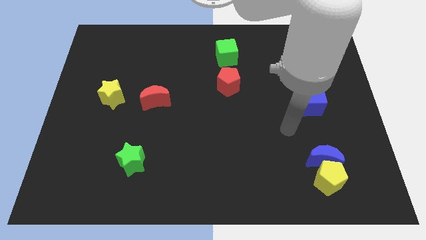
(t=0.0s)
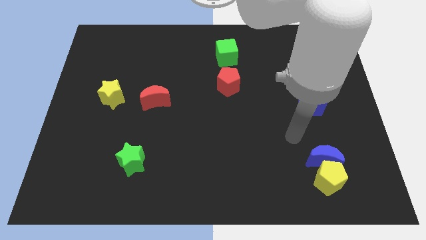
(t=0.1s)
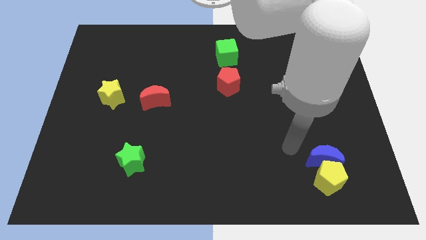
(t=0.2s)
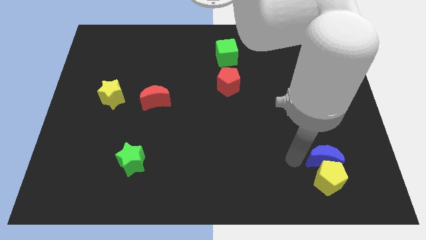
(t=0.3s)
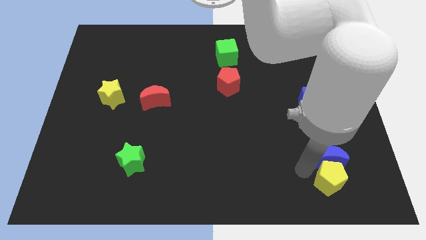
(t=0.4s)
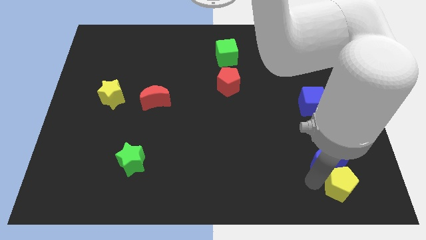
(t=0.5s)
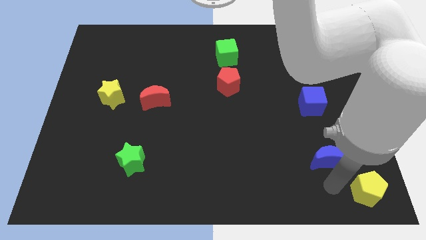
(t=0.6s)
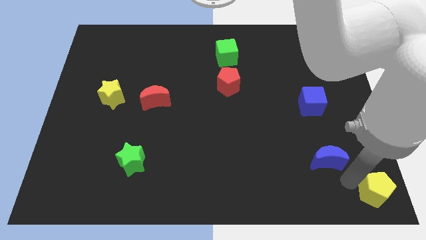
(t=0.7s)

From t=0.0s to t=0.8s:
move the blue moon away from the yellow pentagon

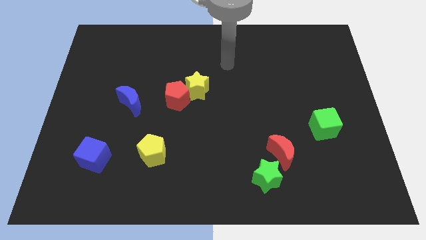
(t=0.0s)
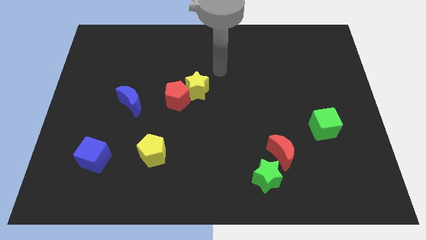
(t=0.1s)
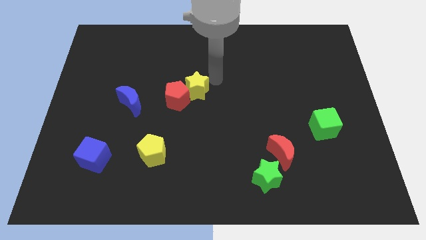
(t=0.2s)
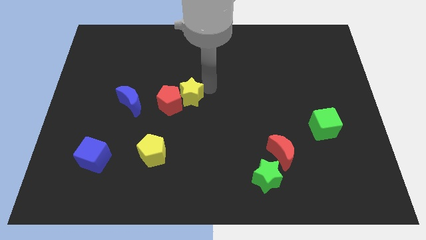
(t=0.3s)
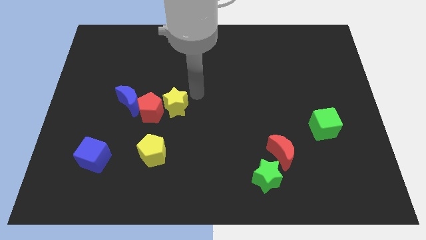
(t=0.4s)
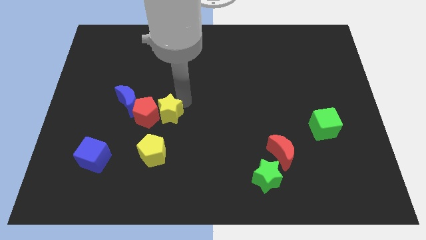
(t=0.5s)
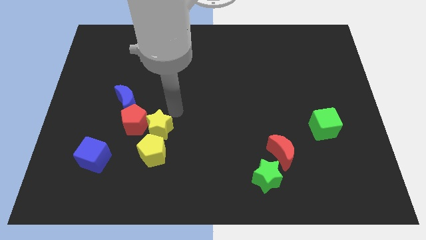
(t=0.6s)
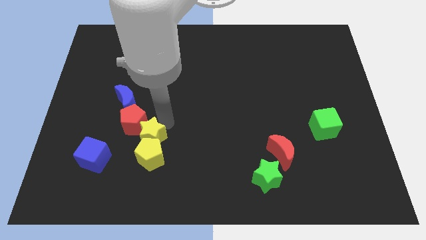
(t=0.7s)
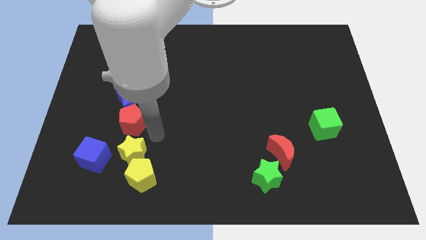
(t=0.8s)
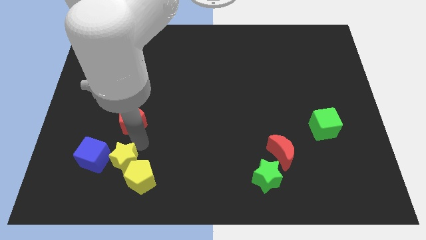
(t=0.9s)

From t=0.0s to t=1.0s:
separate the red pentagon from the yellow star

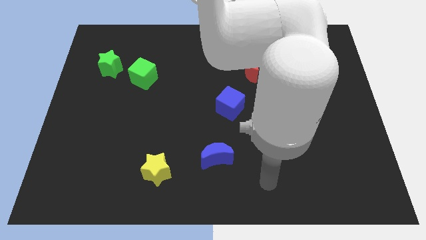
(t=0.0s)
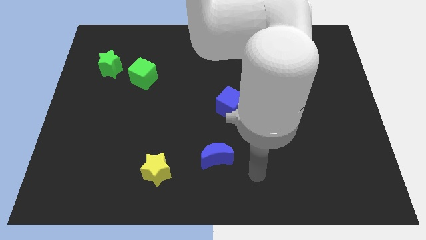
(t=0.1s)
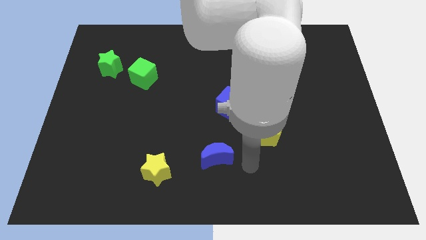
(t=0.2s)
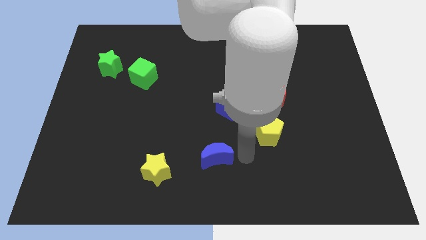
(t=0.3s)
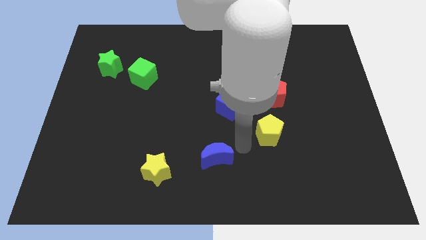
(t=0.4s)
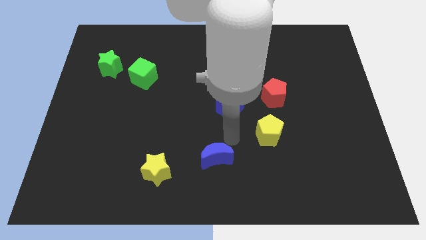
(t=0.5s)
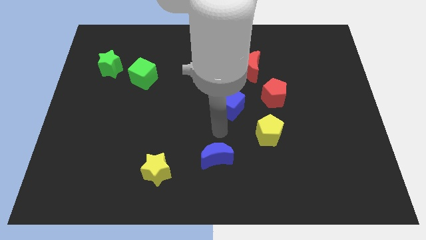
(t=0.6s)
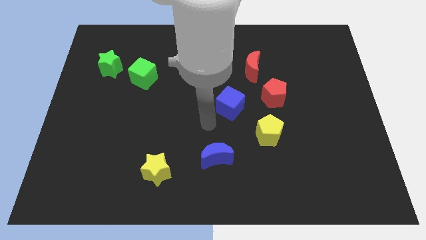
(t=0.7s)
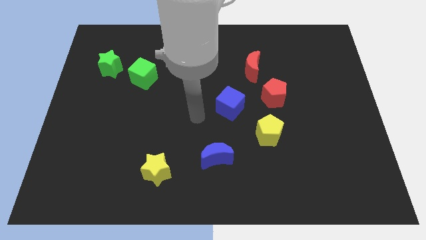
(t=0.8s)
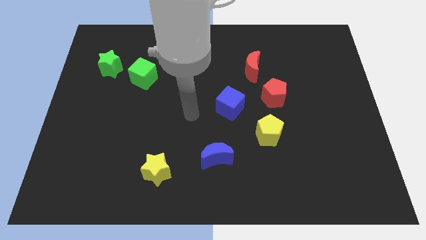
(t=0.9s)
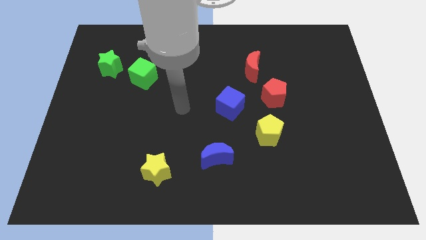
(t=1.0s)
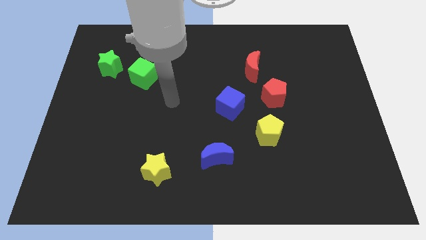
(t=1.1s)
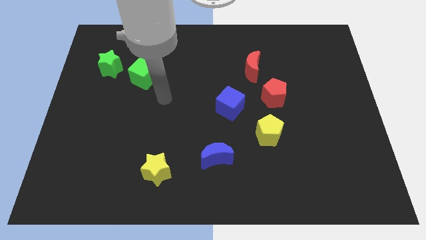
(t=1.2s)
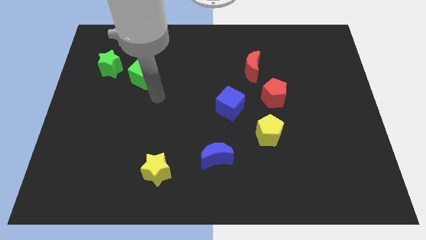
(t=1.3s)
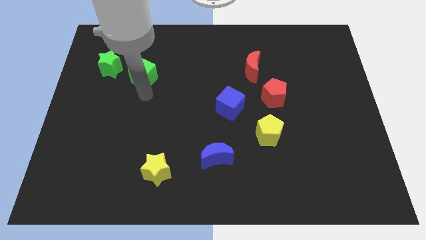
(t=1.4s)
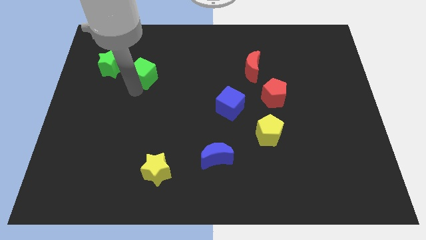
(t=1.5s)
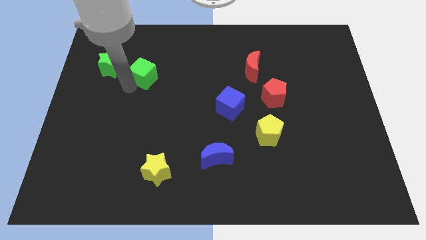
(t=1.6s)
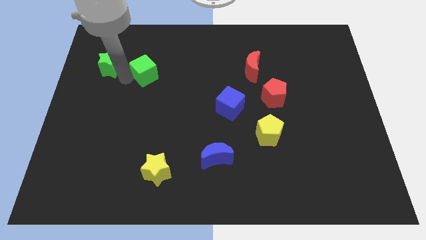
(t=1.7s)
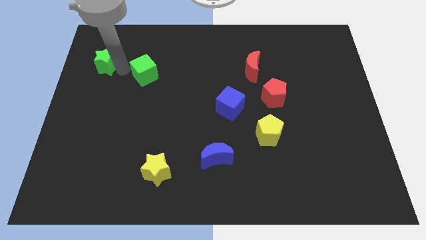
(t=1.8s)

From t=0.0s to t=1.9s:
separate the green cube from the green star

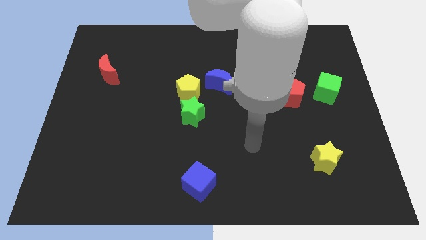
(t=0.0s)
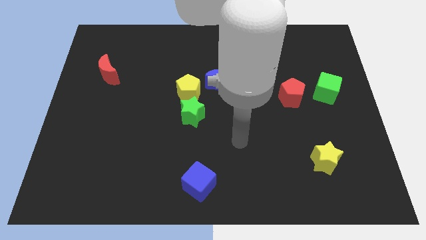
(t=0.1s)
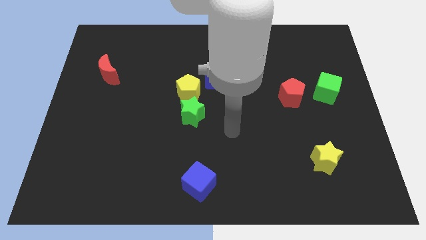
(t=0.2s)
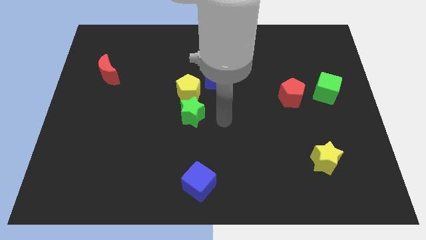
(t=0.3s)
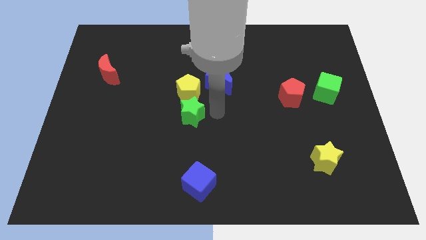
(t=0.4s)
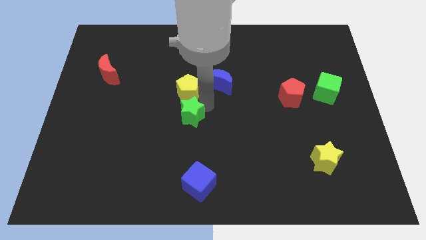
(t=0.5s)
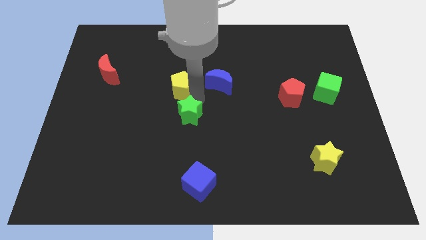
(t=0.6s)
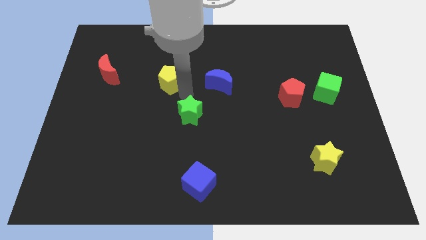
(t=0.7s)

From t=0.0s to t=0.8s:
separate the green star from the yellow pentagon

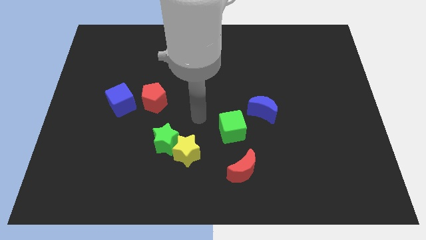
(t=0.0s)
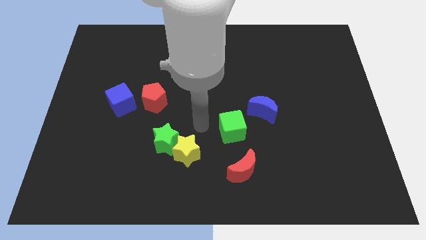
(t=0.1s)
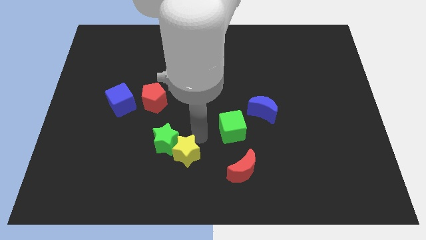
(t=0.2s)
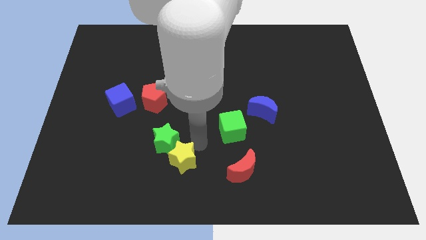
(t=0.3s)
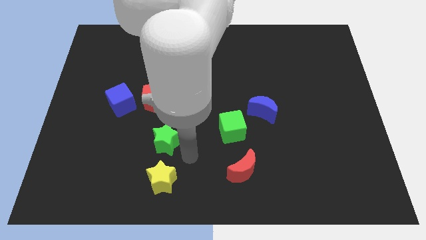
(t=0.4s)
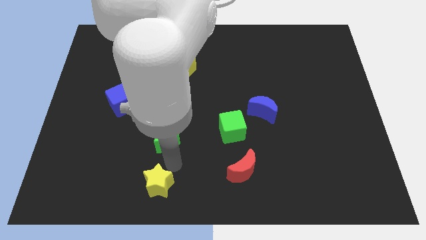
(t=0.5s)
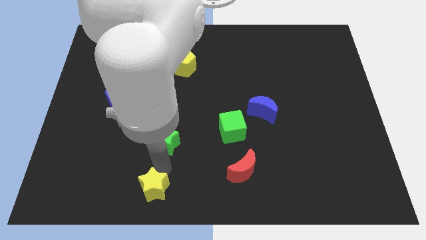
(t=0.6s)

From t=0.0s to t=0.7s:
separate the green star from the yellow star

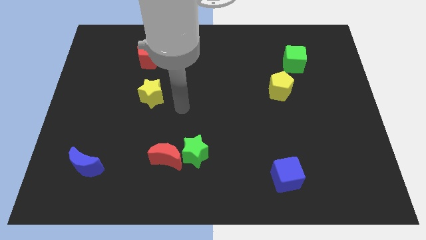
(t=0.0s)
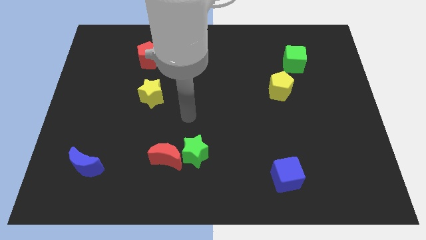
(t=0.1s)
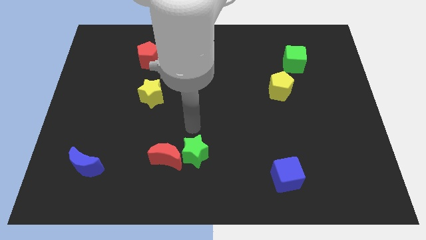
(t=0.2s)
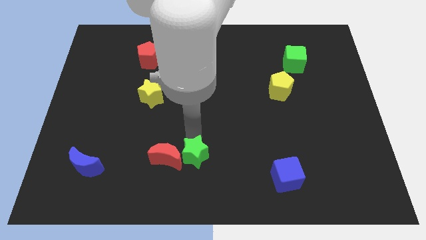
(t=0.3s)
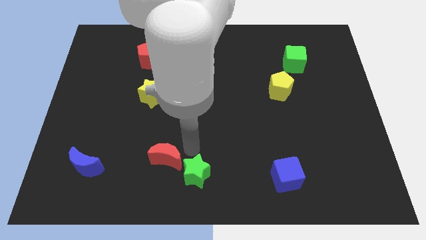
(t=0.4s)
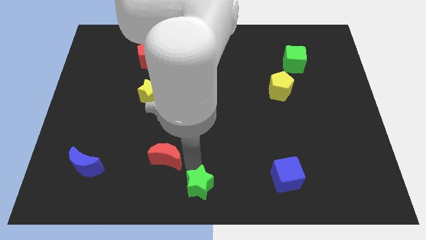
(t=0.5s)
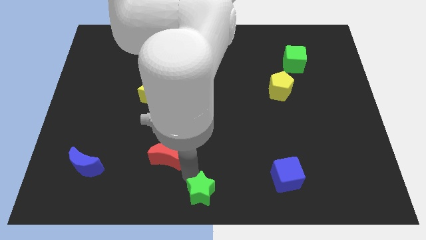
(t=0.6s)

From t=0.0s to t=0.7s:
pull the red moon apart from the green star

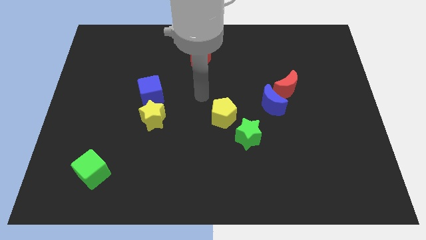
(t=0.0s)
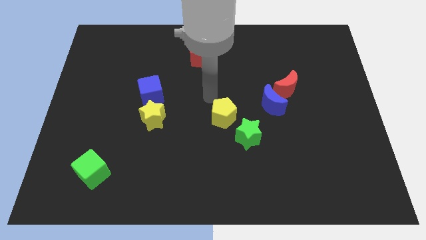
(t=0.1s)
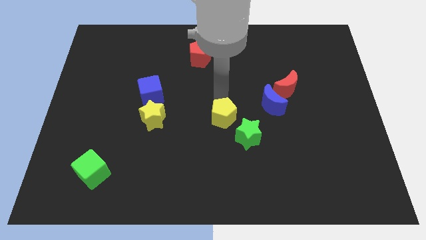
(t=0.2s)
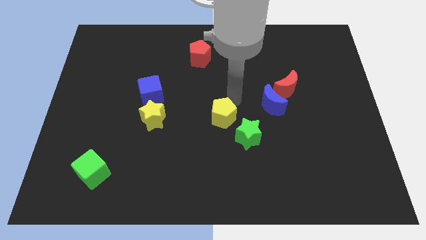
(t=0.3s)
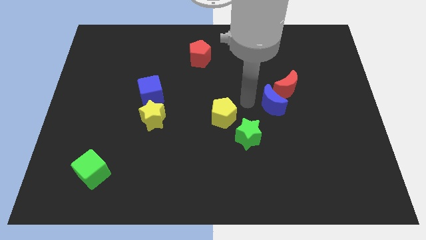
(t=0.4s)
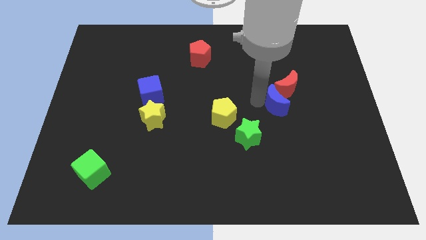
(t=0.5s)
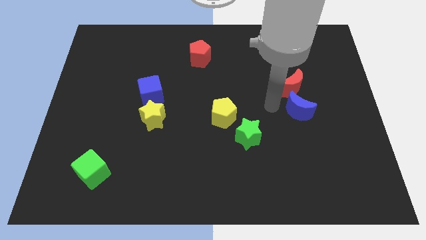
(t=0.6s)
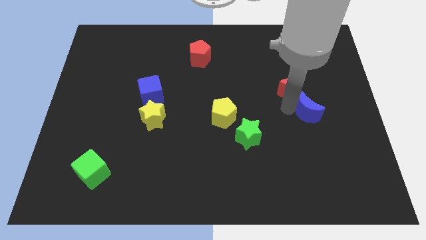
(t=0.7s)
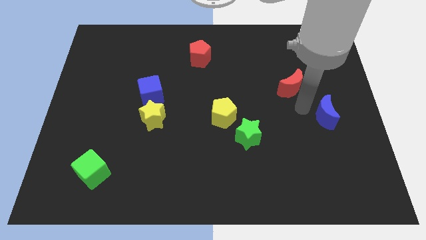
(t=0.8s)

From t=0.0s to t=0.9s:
move the red moon away from the blue moon

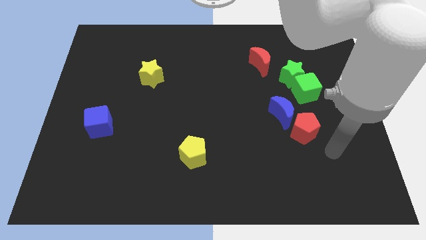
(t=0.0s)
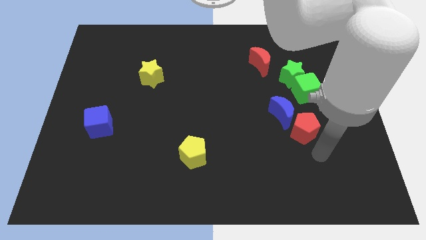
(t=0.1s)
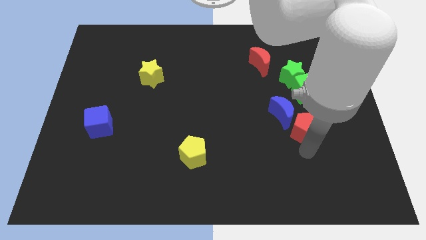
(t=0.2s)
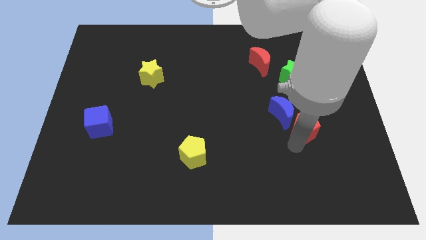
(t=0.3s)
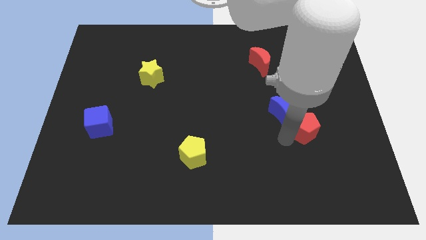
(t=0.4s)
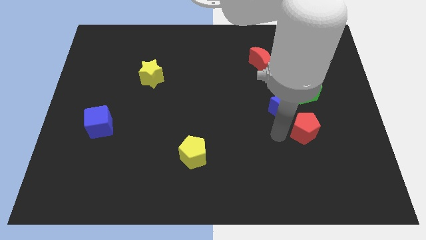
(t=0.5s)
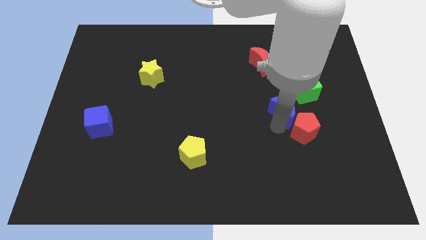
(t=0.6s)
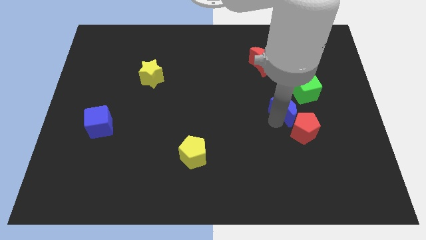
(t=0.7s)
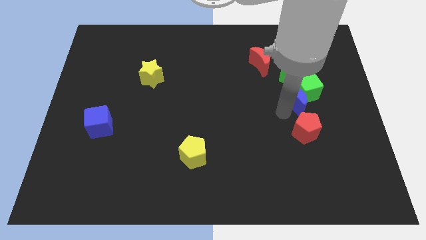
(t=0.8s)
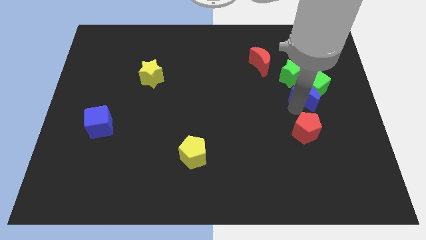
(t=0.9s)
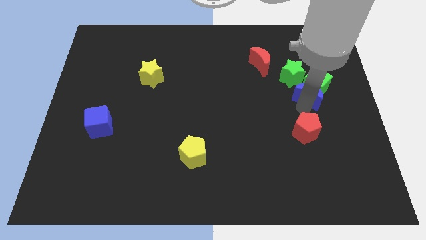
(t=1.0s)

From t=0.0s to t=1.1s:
pull the red pentagon apart from the blue moon

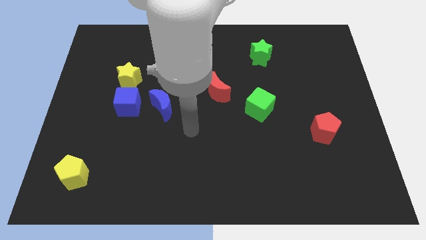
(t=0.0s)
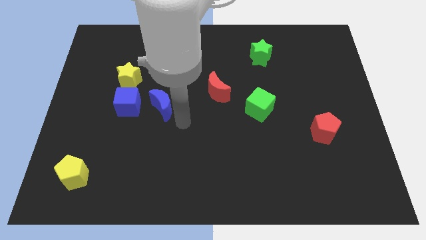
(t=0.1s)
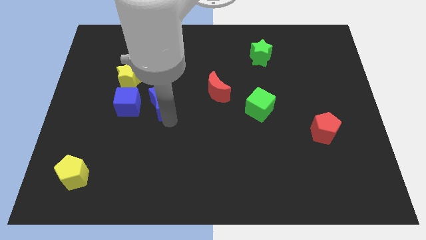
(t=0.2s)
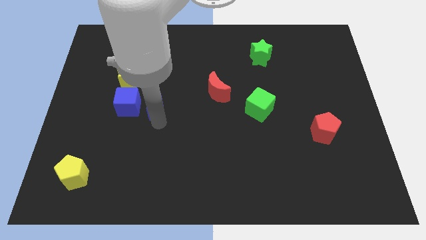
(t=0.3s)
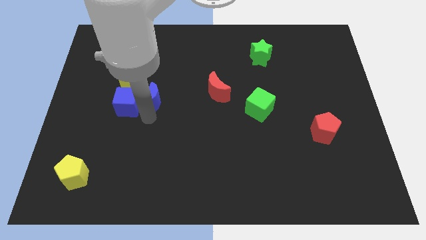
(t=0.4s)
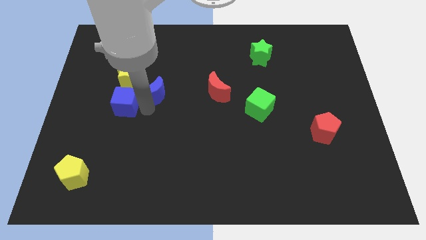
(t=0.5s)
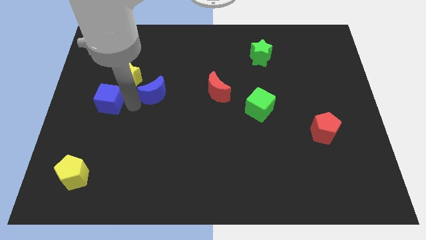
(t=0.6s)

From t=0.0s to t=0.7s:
move the blue moon away from the blue cube

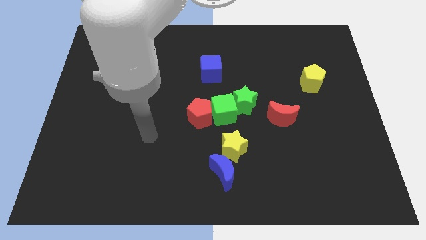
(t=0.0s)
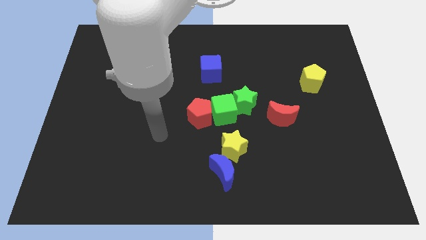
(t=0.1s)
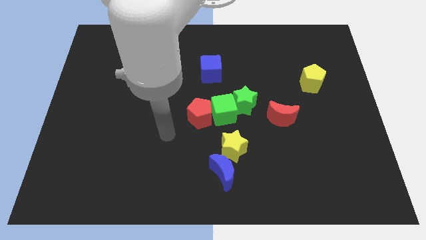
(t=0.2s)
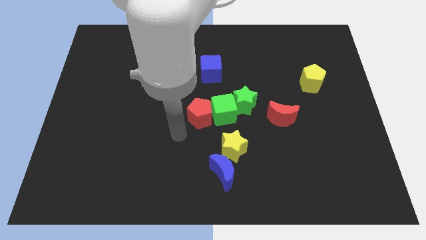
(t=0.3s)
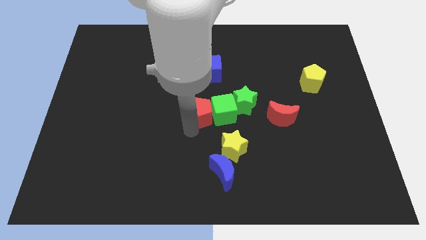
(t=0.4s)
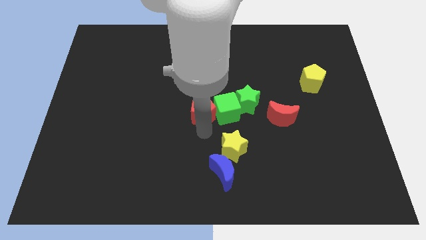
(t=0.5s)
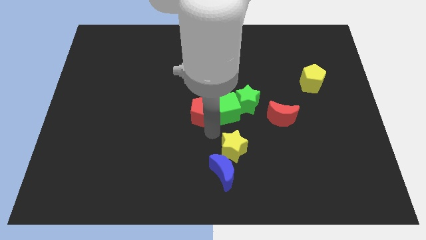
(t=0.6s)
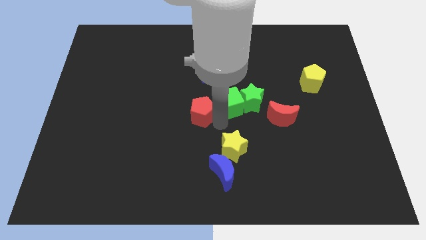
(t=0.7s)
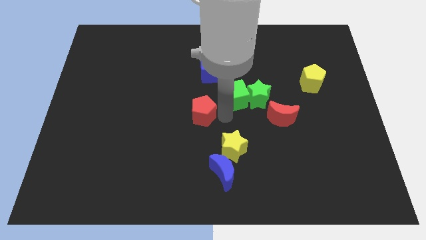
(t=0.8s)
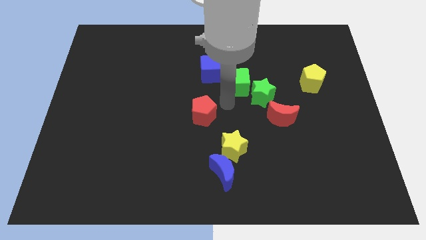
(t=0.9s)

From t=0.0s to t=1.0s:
separate the red pentagon from the green cube
